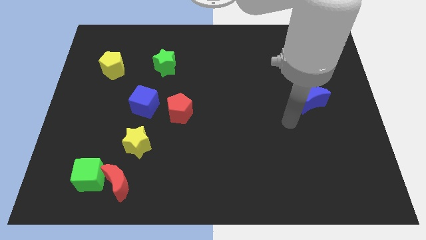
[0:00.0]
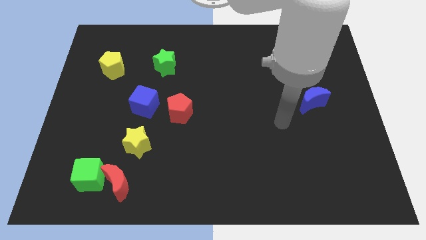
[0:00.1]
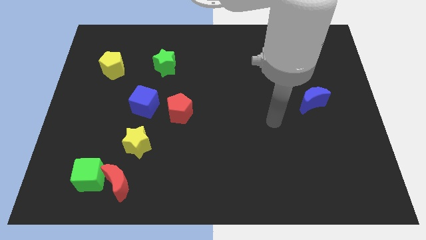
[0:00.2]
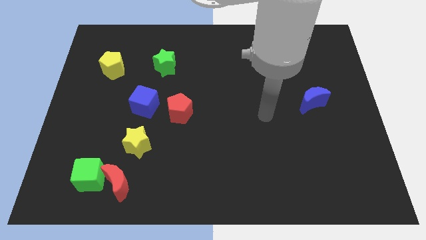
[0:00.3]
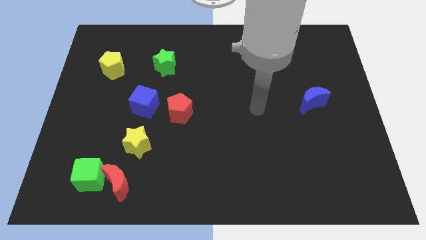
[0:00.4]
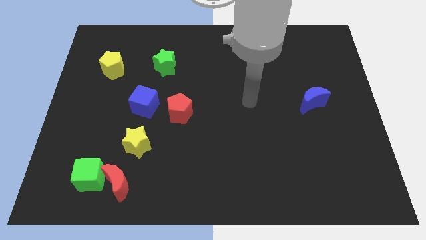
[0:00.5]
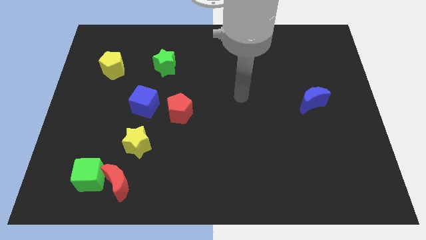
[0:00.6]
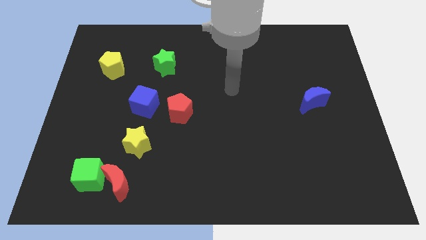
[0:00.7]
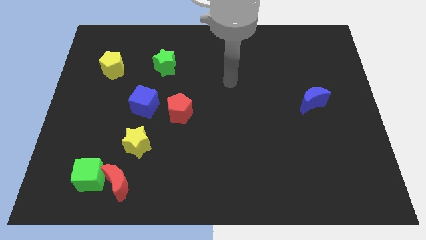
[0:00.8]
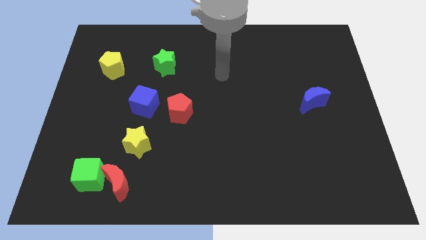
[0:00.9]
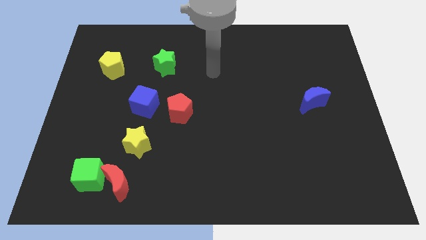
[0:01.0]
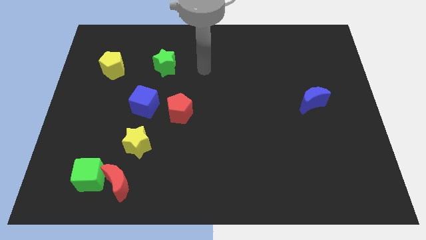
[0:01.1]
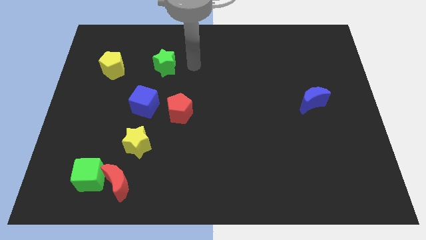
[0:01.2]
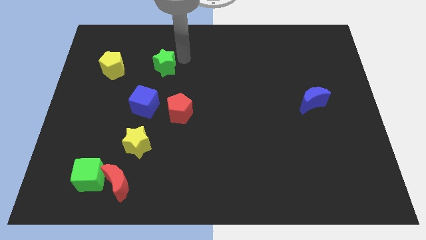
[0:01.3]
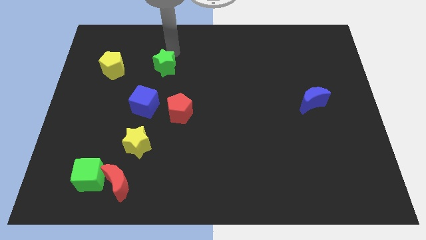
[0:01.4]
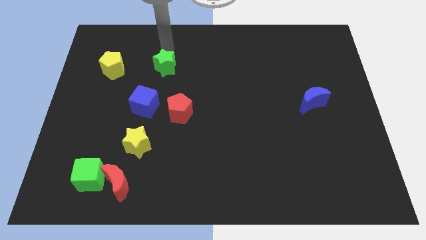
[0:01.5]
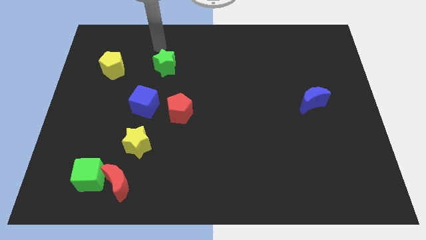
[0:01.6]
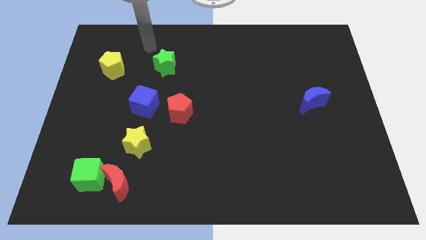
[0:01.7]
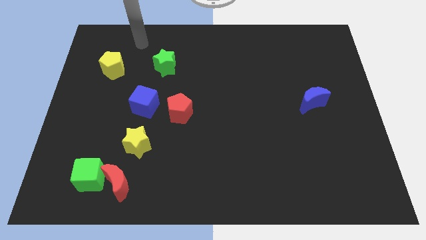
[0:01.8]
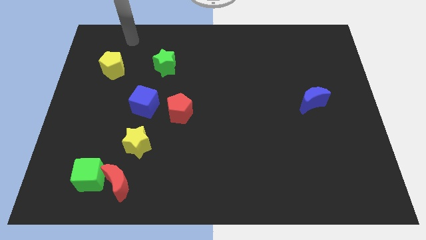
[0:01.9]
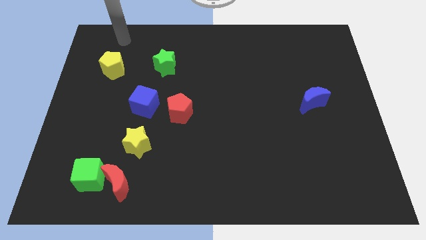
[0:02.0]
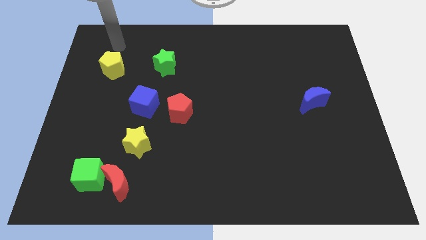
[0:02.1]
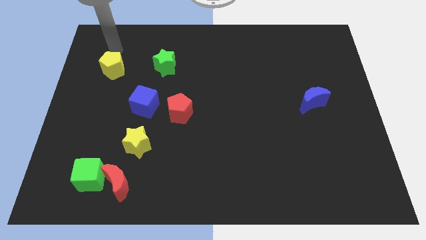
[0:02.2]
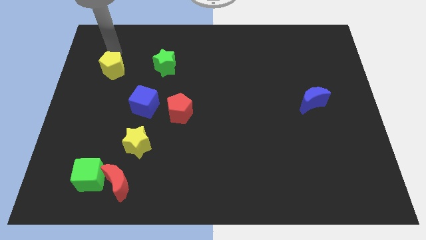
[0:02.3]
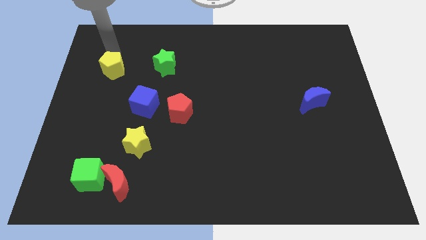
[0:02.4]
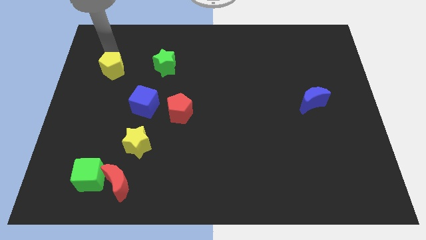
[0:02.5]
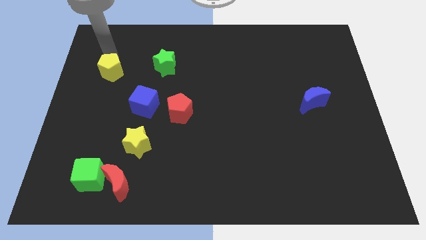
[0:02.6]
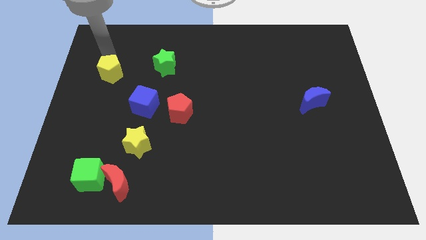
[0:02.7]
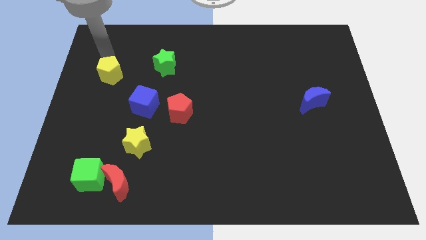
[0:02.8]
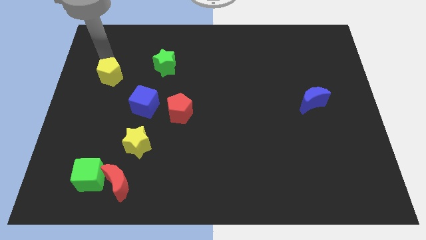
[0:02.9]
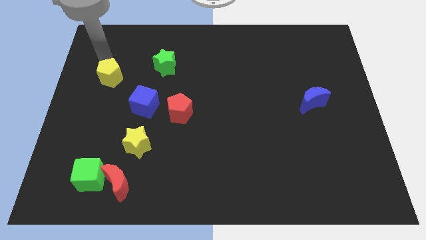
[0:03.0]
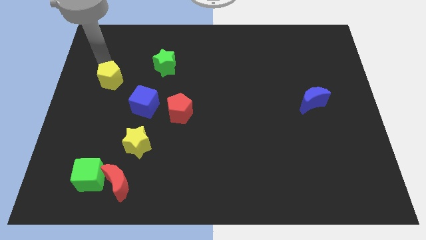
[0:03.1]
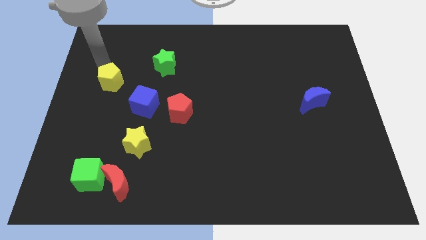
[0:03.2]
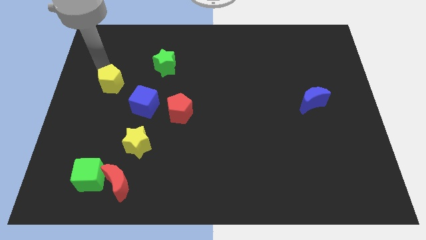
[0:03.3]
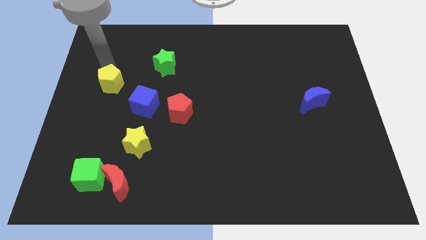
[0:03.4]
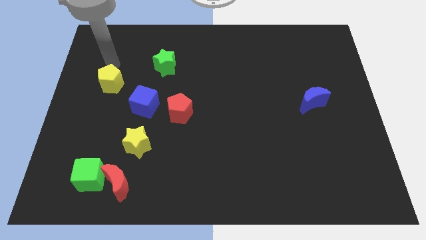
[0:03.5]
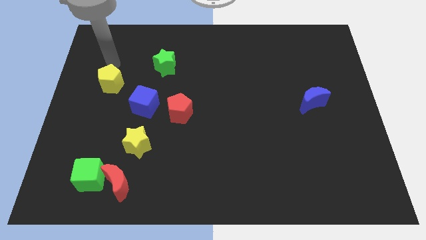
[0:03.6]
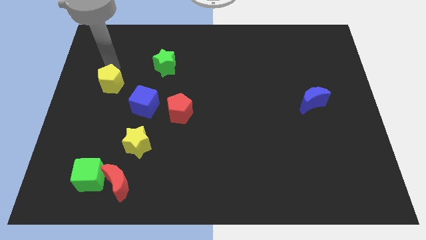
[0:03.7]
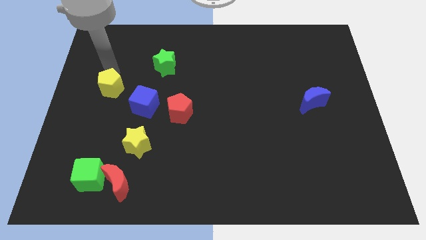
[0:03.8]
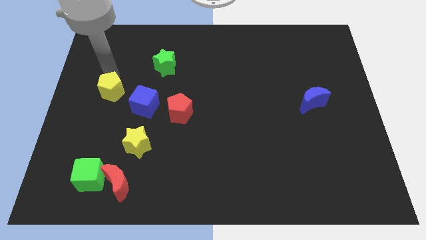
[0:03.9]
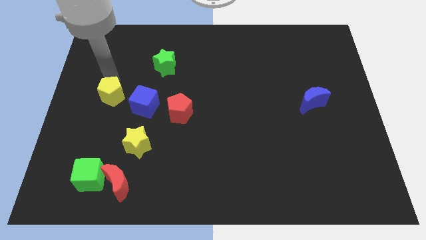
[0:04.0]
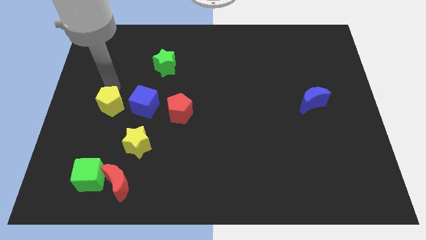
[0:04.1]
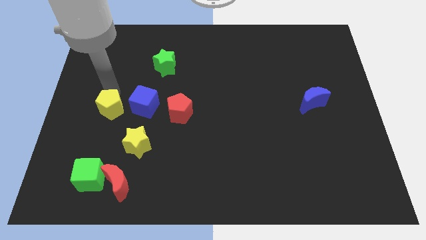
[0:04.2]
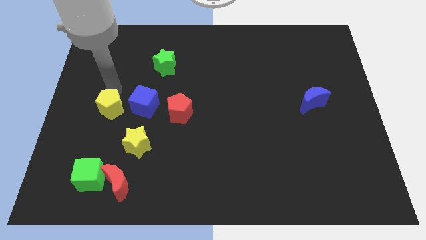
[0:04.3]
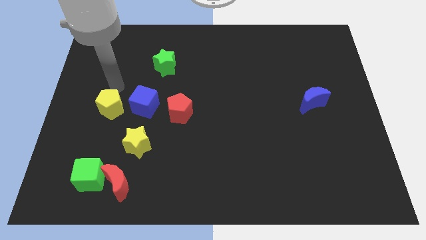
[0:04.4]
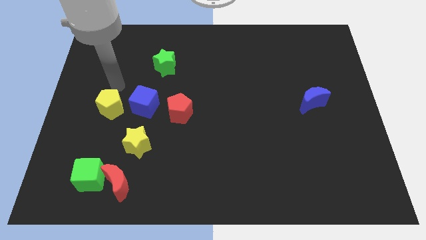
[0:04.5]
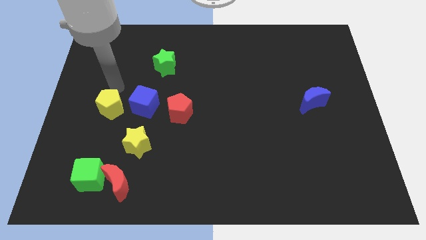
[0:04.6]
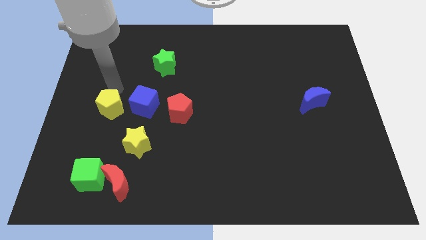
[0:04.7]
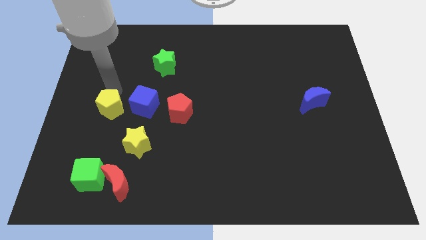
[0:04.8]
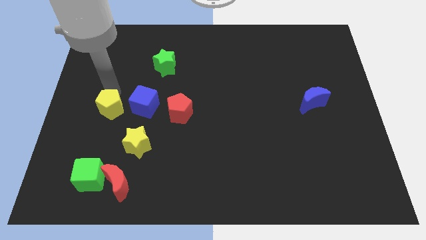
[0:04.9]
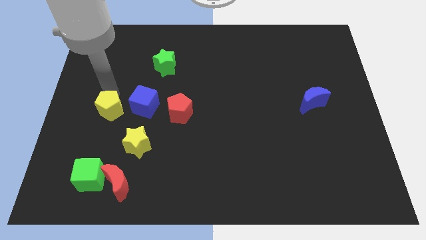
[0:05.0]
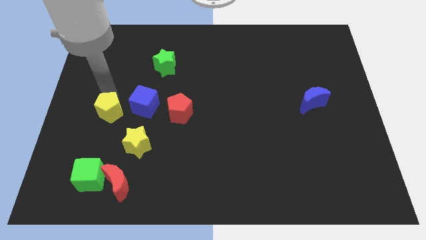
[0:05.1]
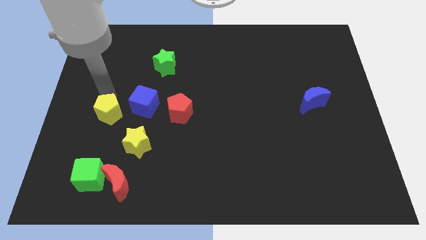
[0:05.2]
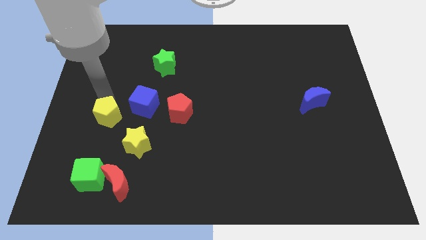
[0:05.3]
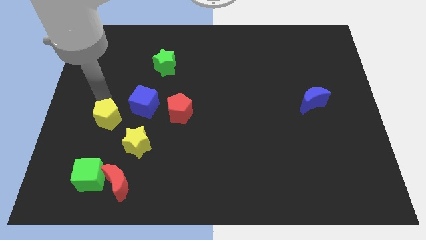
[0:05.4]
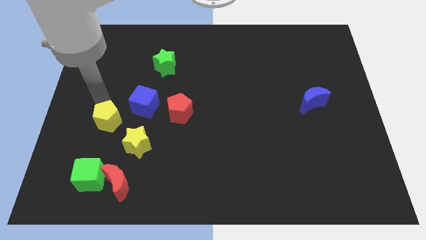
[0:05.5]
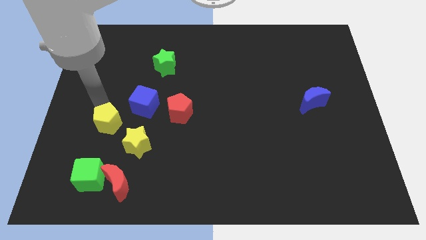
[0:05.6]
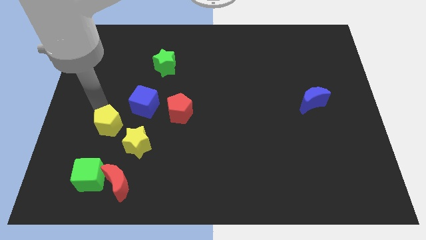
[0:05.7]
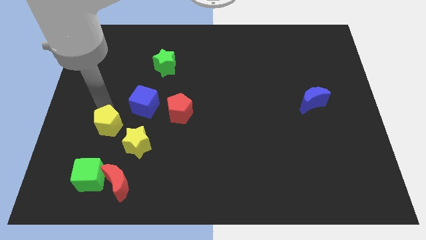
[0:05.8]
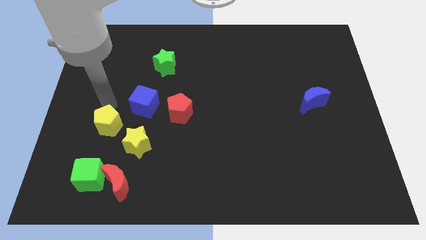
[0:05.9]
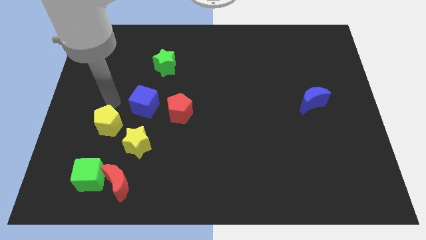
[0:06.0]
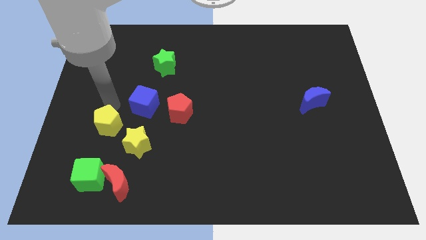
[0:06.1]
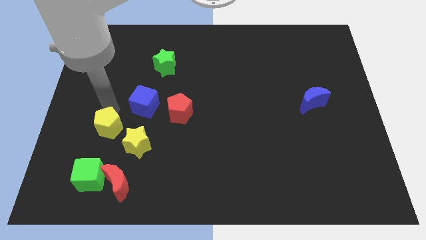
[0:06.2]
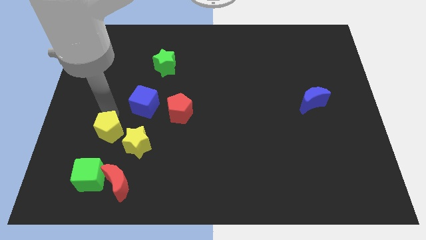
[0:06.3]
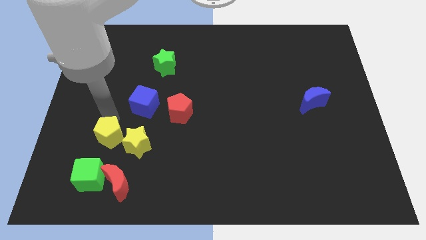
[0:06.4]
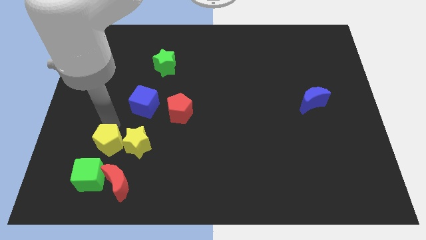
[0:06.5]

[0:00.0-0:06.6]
push the yellow pentagon to the top left side of the red moon

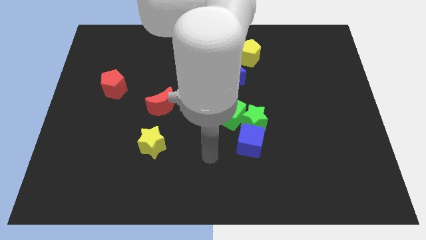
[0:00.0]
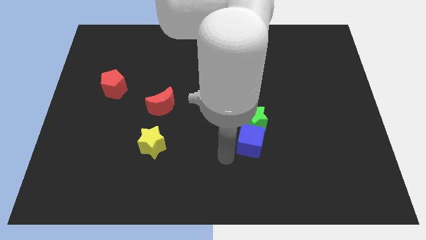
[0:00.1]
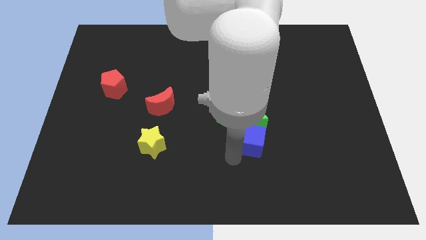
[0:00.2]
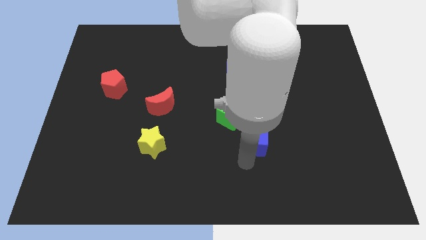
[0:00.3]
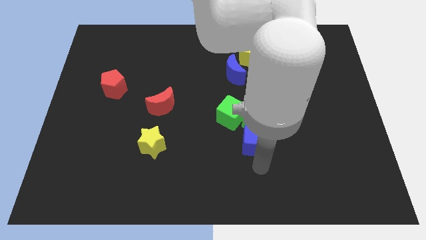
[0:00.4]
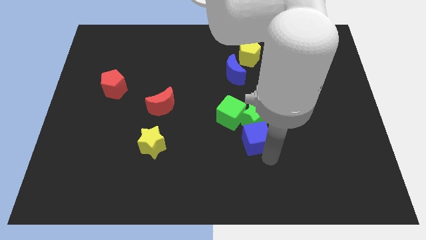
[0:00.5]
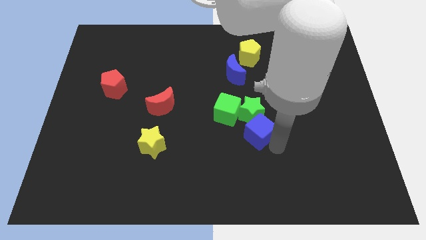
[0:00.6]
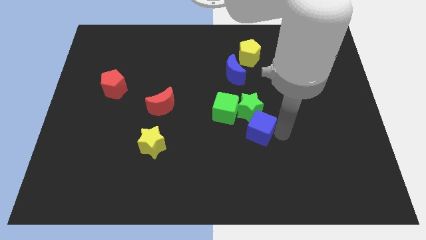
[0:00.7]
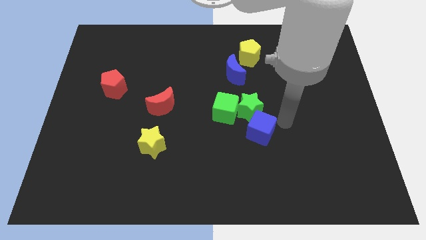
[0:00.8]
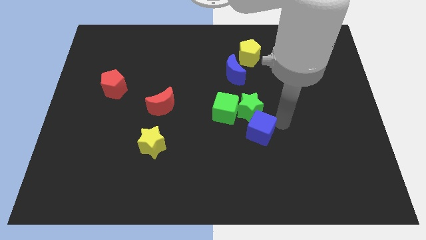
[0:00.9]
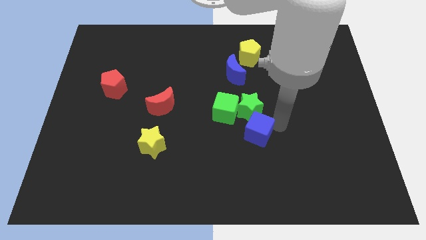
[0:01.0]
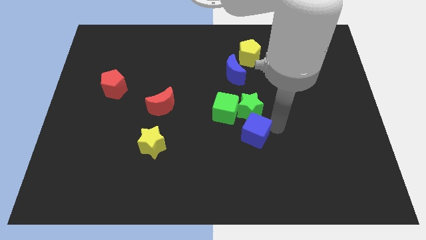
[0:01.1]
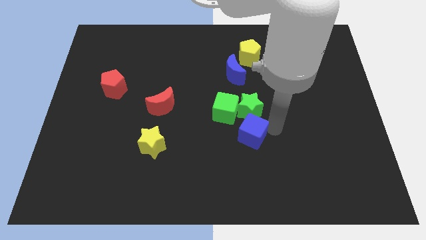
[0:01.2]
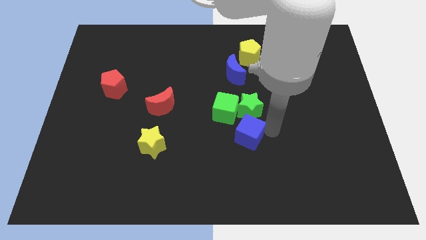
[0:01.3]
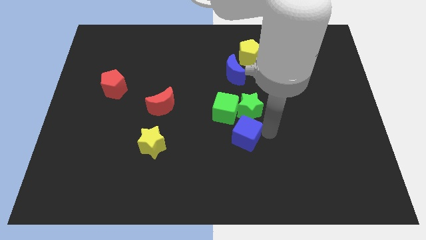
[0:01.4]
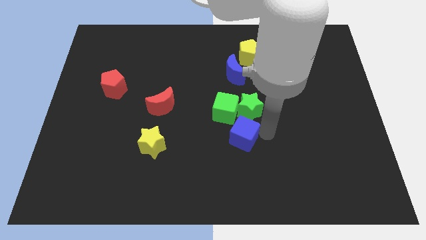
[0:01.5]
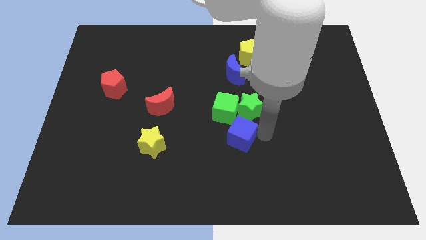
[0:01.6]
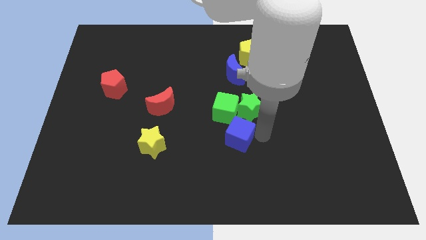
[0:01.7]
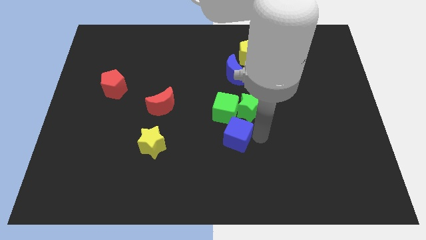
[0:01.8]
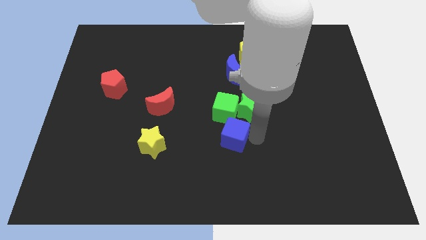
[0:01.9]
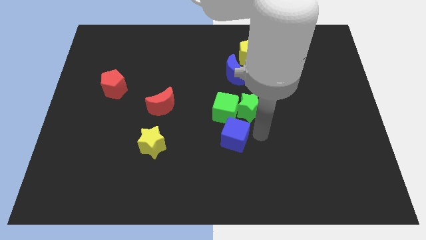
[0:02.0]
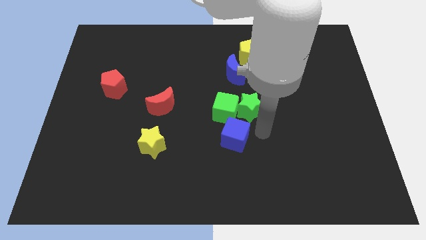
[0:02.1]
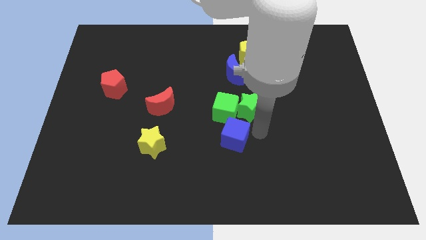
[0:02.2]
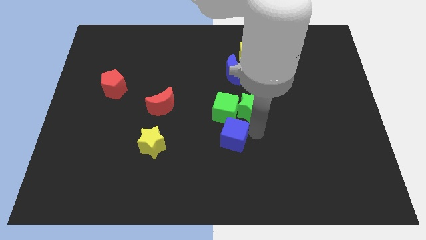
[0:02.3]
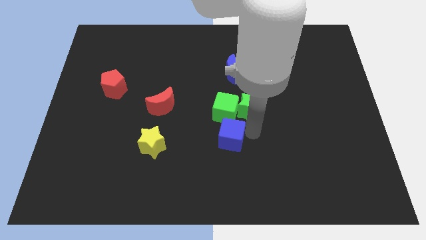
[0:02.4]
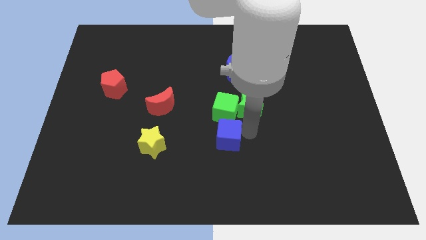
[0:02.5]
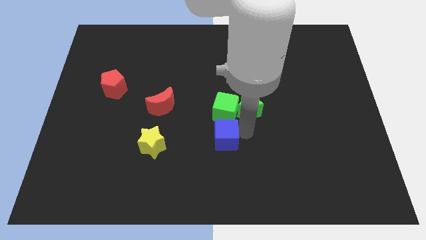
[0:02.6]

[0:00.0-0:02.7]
move the blue cube to the right of the yellow star
